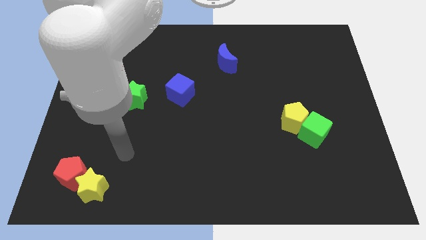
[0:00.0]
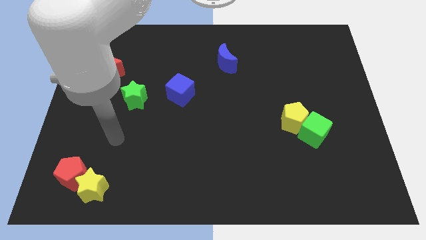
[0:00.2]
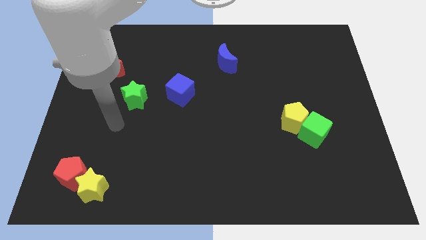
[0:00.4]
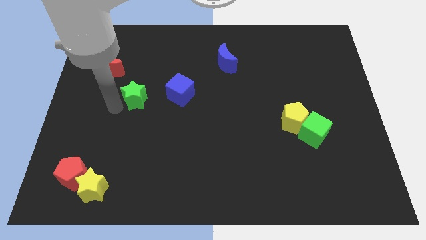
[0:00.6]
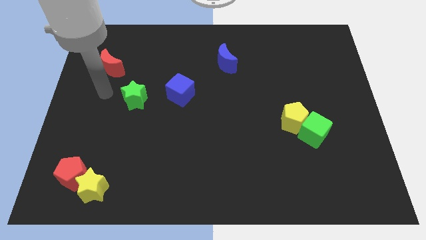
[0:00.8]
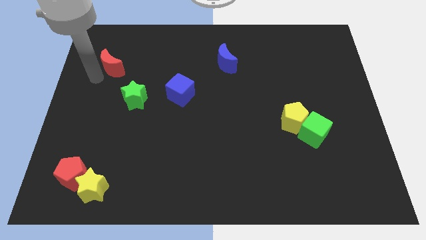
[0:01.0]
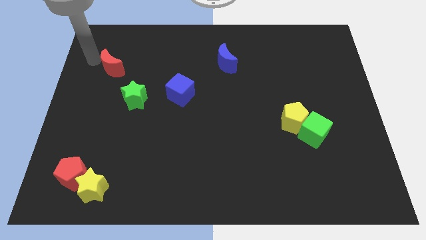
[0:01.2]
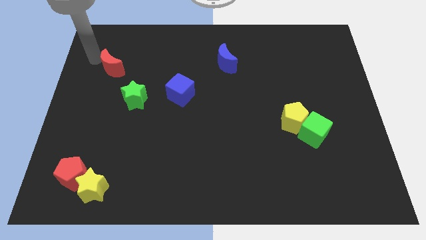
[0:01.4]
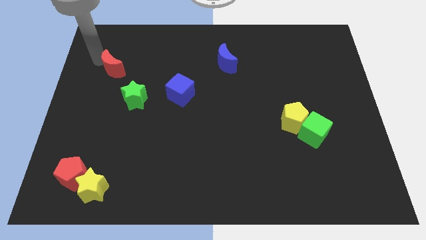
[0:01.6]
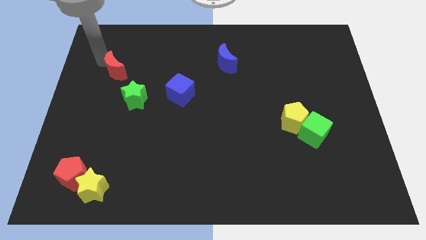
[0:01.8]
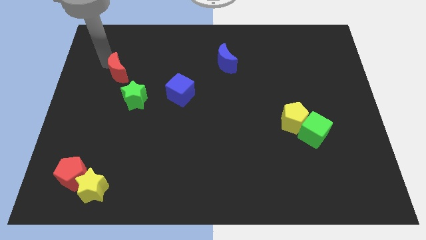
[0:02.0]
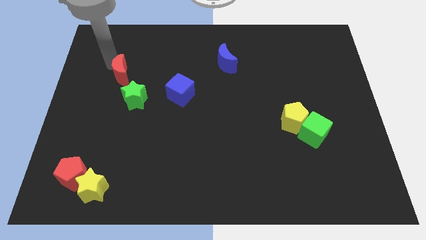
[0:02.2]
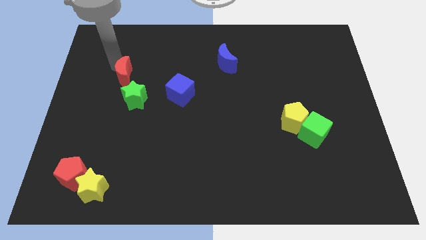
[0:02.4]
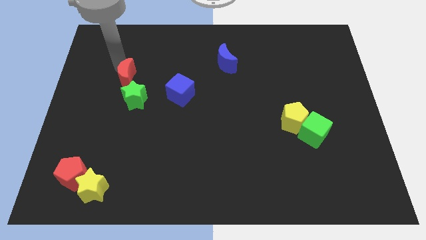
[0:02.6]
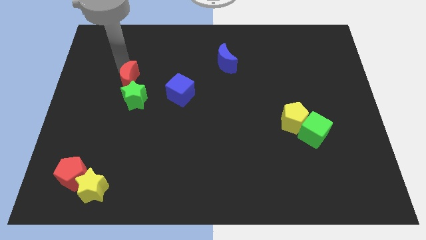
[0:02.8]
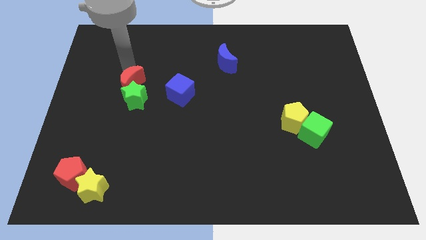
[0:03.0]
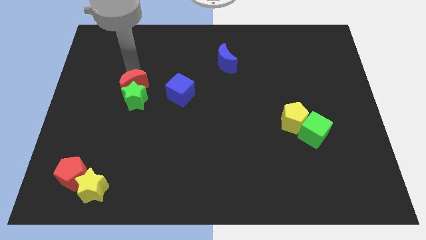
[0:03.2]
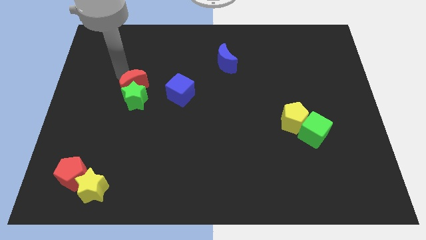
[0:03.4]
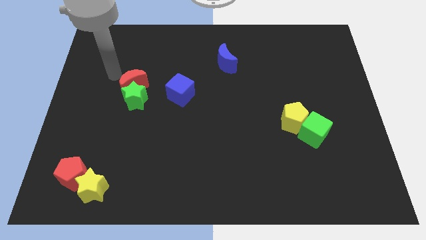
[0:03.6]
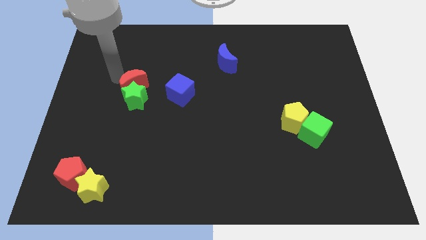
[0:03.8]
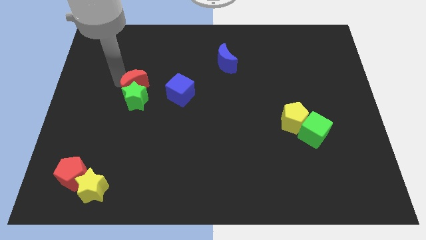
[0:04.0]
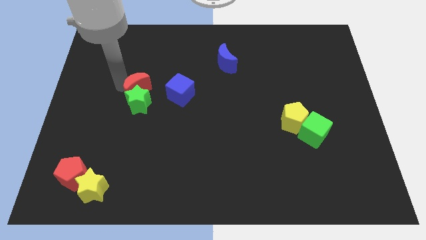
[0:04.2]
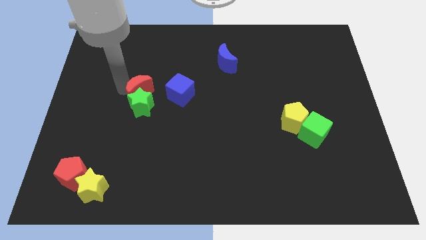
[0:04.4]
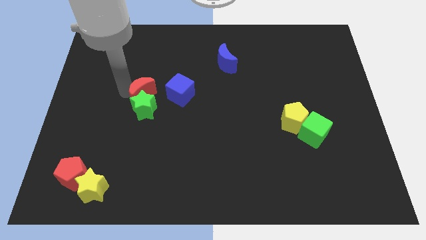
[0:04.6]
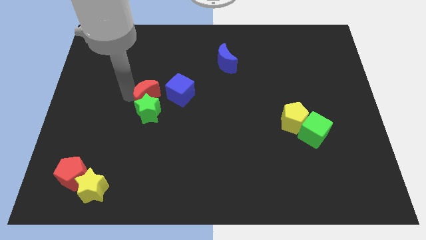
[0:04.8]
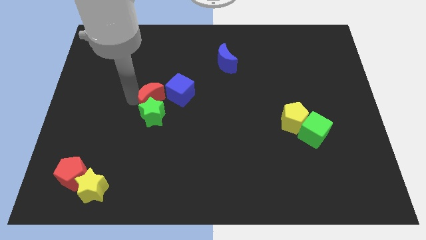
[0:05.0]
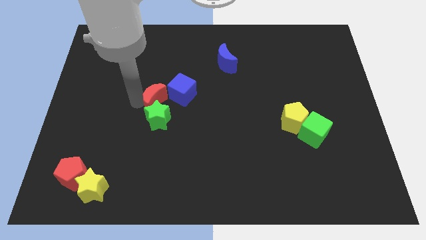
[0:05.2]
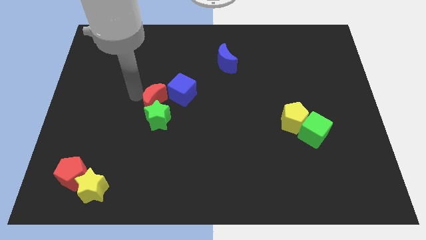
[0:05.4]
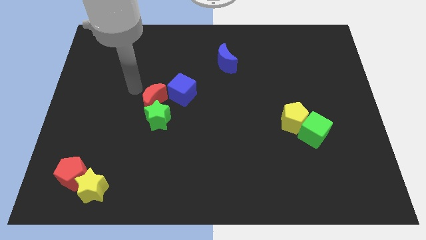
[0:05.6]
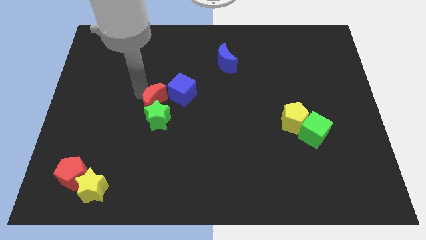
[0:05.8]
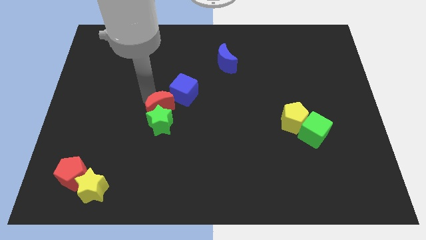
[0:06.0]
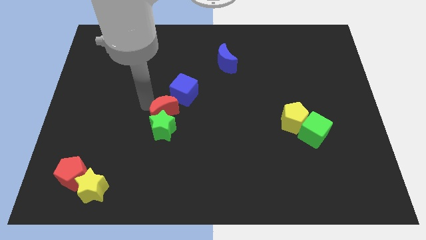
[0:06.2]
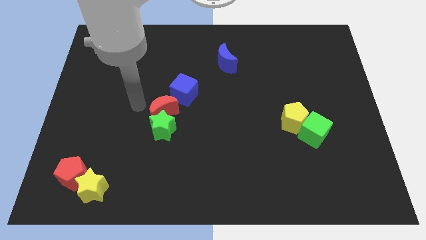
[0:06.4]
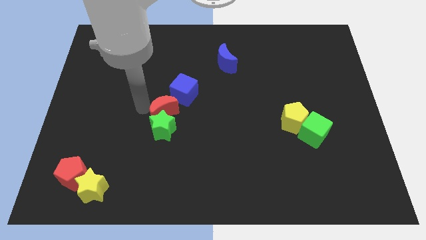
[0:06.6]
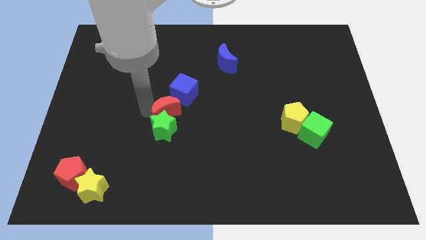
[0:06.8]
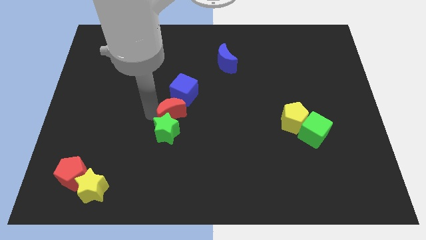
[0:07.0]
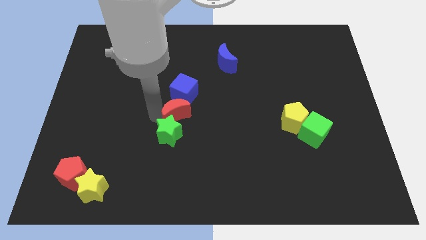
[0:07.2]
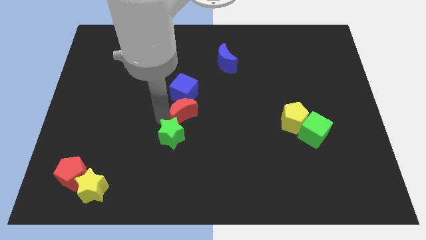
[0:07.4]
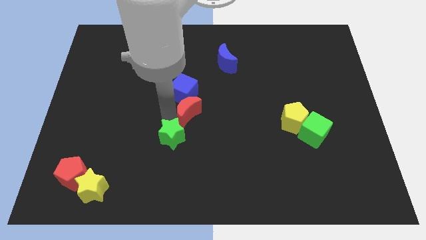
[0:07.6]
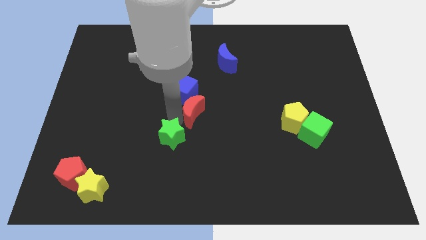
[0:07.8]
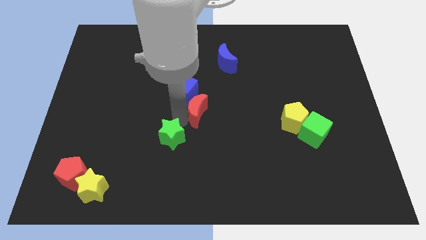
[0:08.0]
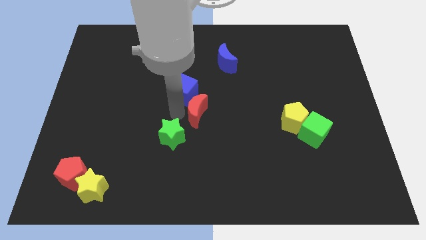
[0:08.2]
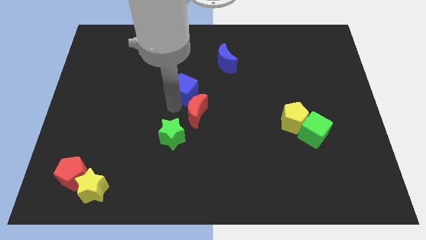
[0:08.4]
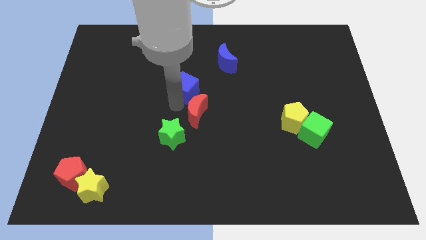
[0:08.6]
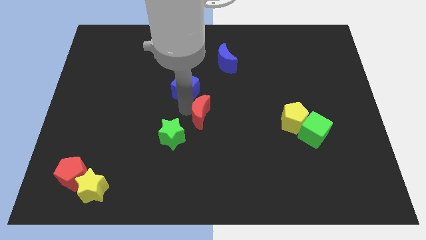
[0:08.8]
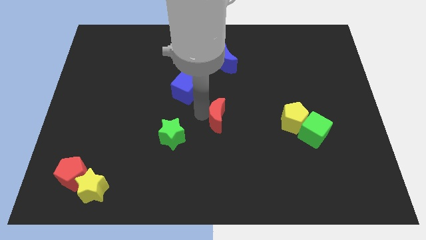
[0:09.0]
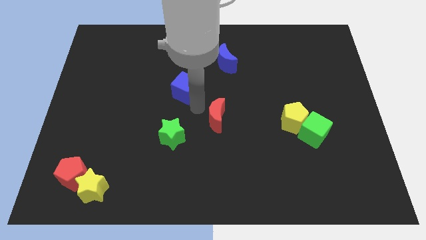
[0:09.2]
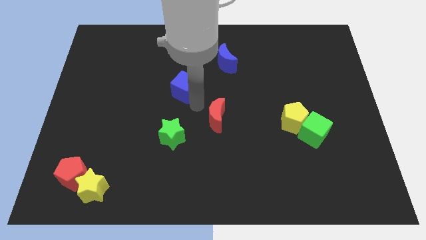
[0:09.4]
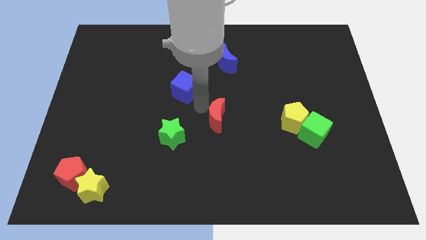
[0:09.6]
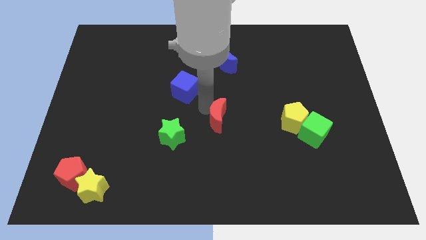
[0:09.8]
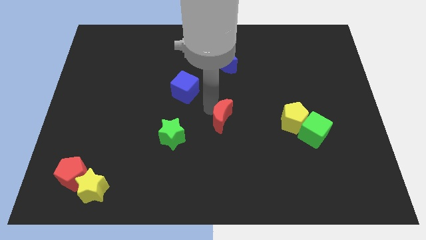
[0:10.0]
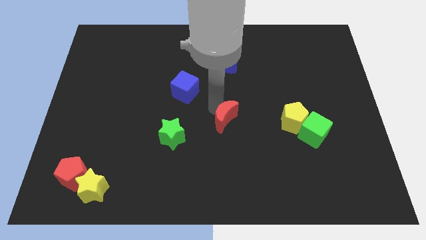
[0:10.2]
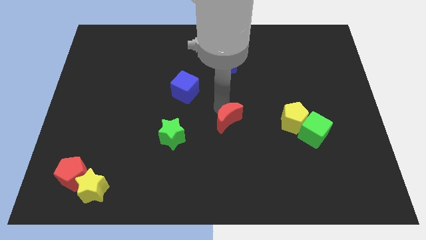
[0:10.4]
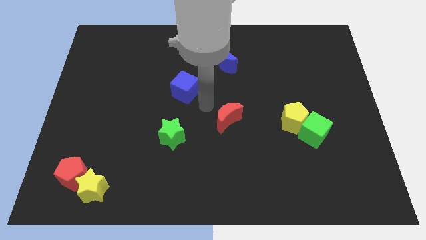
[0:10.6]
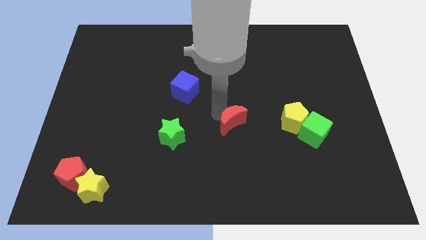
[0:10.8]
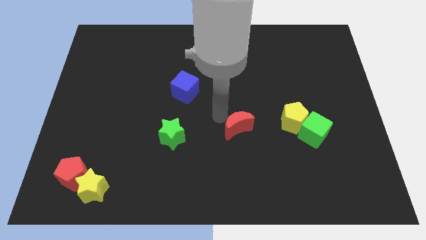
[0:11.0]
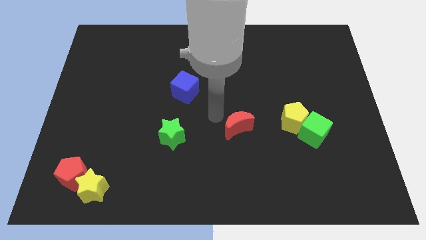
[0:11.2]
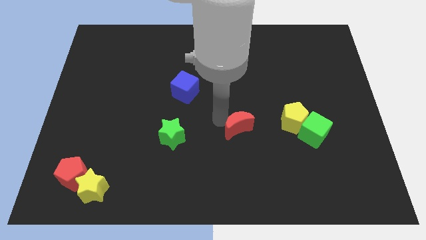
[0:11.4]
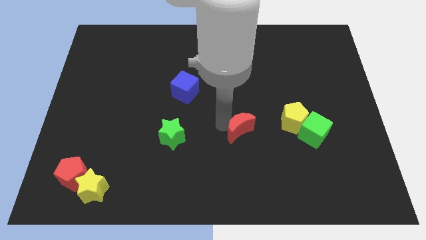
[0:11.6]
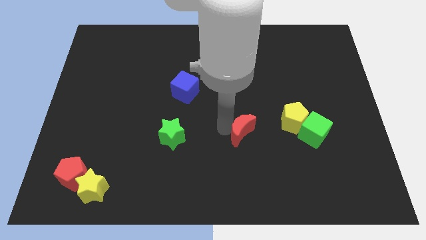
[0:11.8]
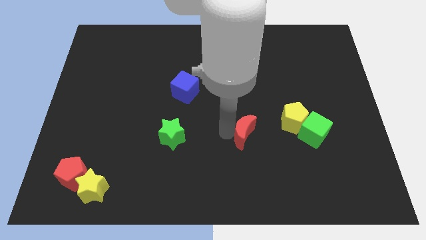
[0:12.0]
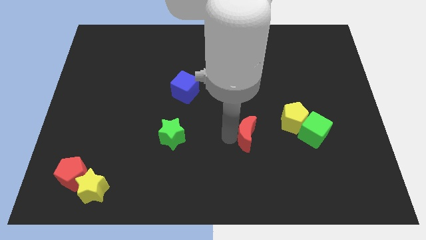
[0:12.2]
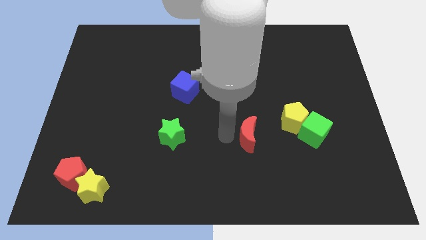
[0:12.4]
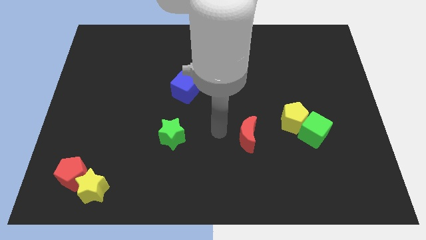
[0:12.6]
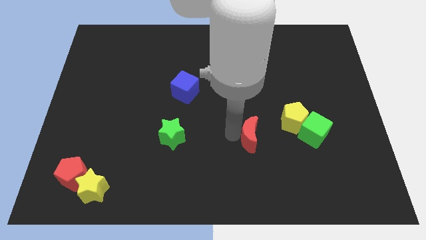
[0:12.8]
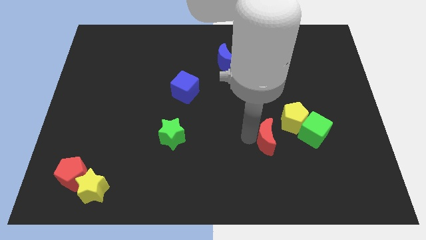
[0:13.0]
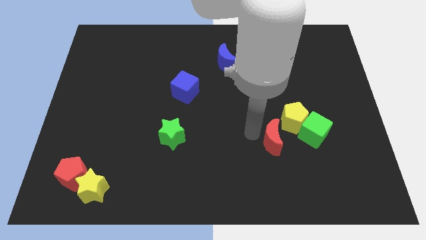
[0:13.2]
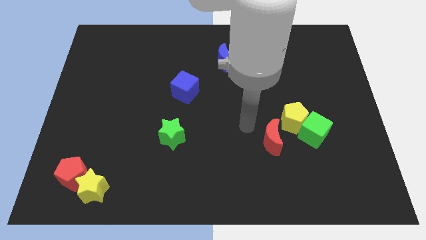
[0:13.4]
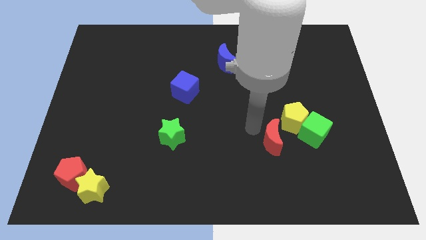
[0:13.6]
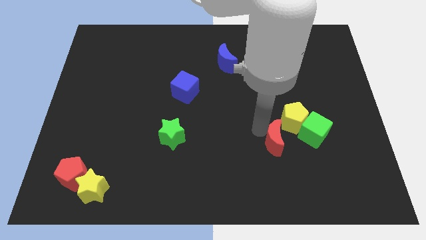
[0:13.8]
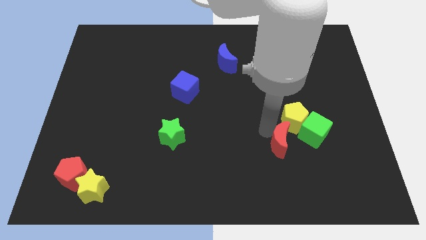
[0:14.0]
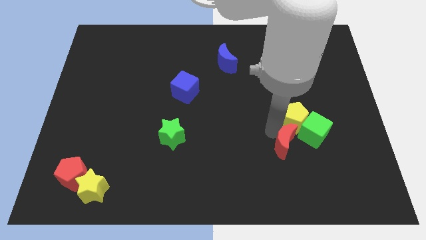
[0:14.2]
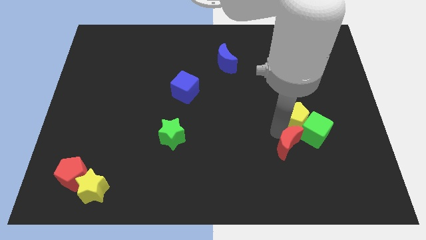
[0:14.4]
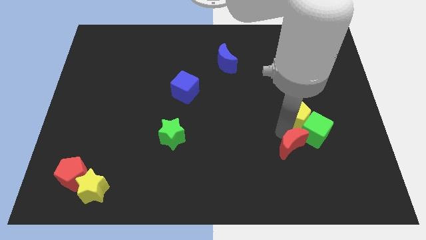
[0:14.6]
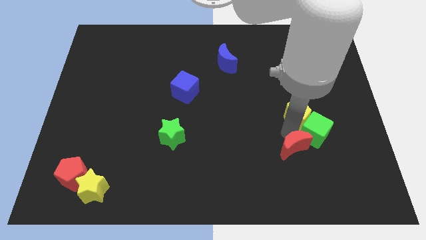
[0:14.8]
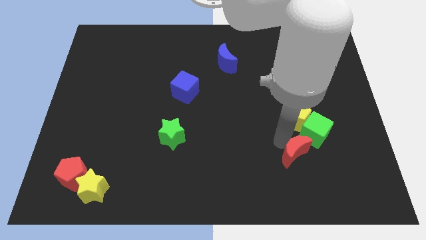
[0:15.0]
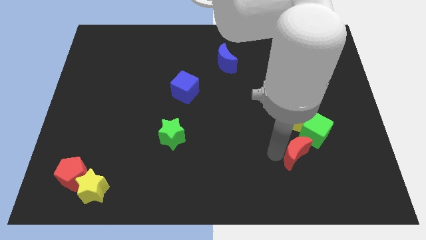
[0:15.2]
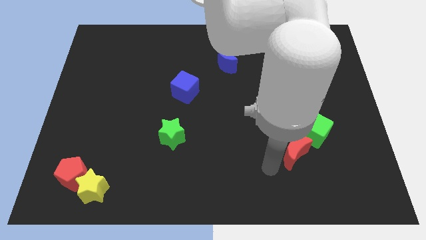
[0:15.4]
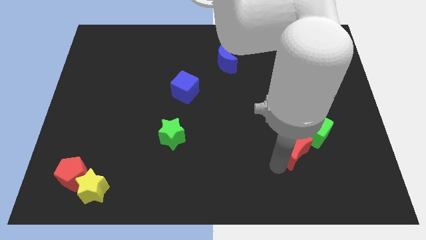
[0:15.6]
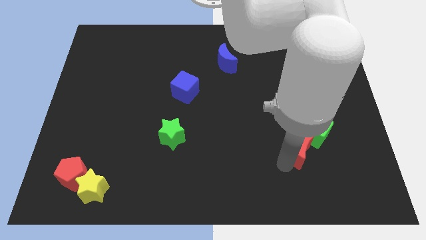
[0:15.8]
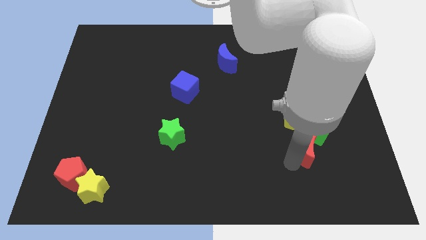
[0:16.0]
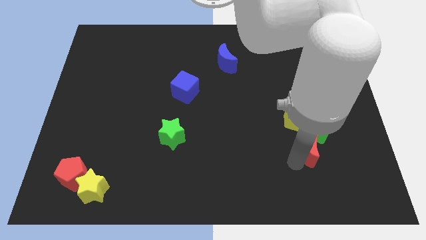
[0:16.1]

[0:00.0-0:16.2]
move the red moon diagonally down and to the right of the yellow pentagon
